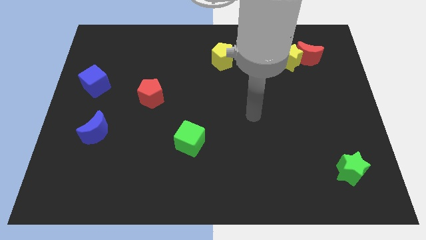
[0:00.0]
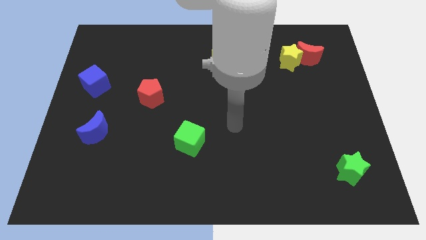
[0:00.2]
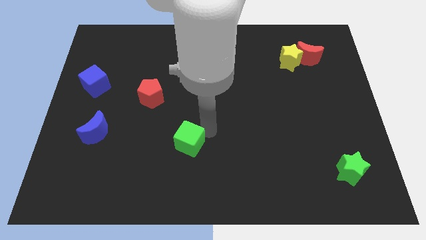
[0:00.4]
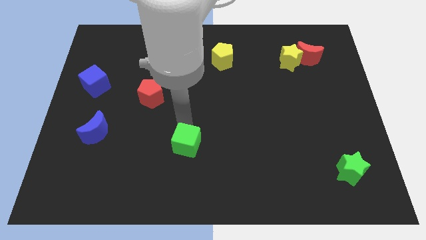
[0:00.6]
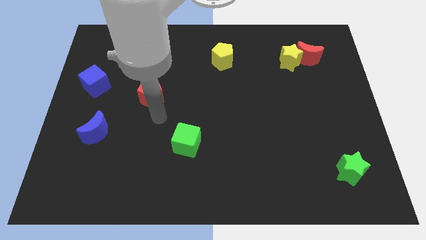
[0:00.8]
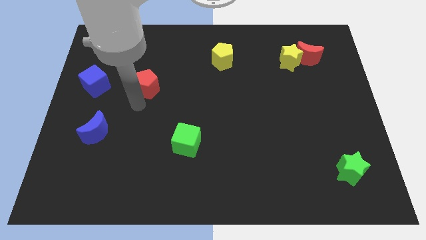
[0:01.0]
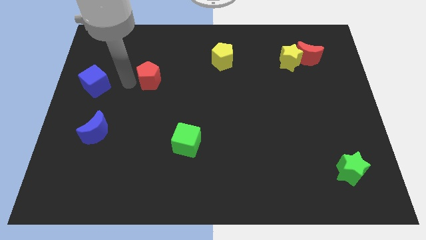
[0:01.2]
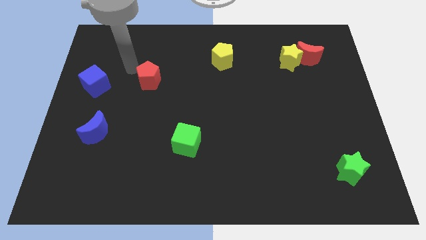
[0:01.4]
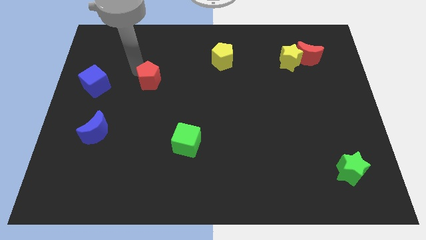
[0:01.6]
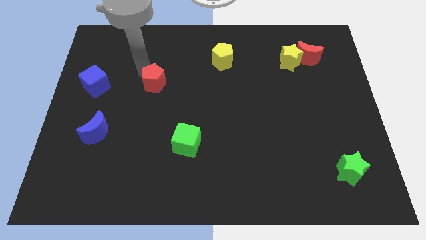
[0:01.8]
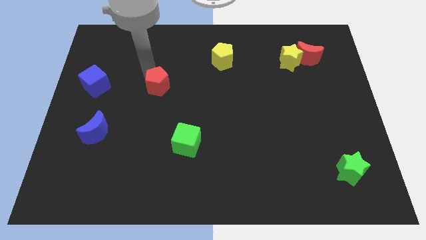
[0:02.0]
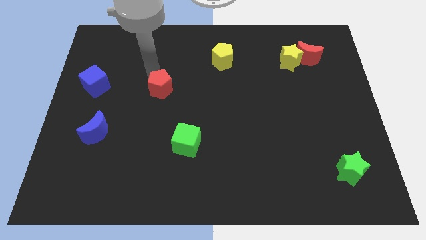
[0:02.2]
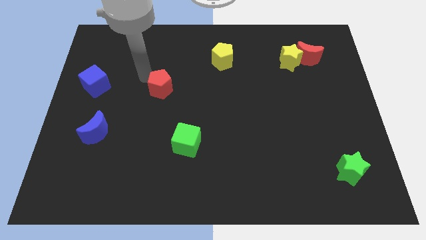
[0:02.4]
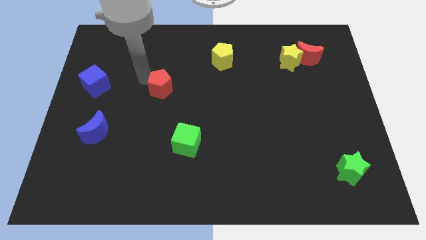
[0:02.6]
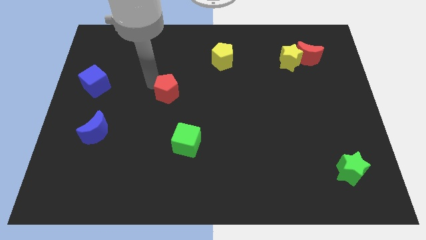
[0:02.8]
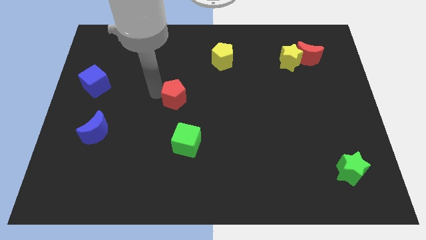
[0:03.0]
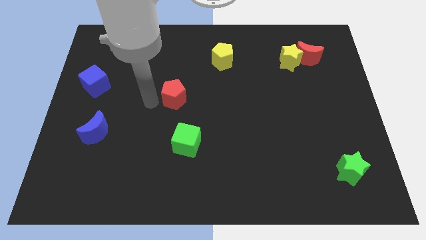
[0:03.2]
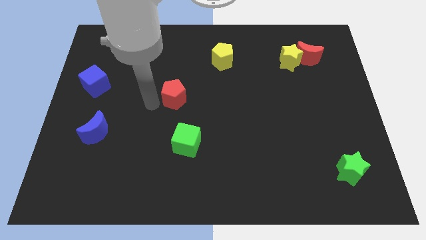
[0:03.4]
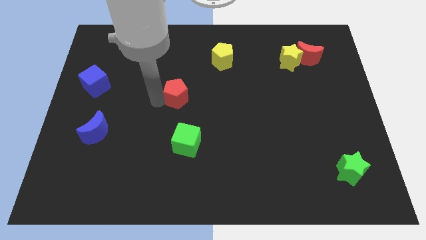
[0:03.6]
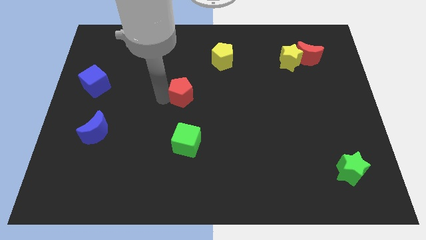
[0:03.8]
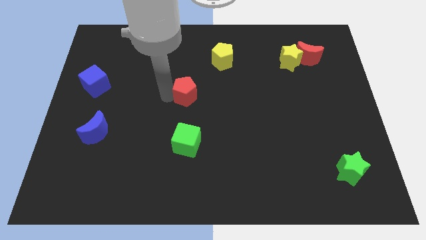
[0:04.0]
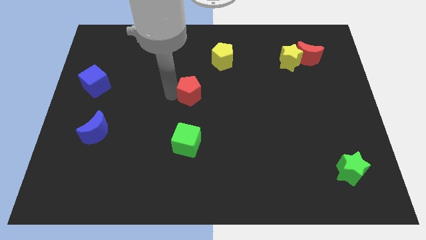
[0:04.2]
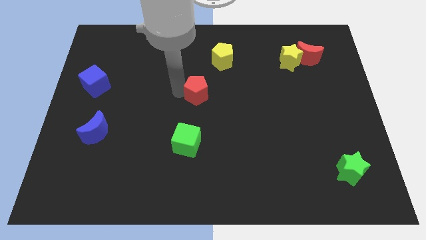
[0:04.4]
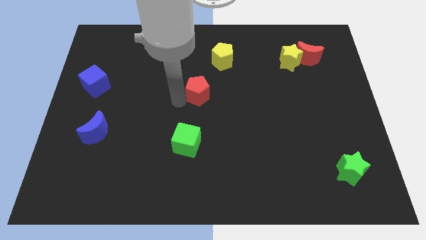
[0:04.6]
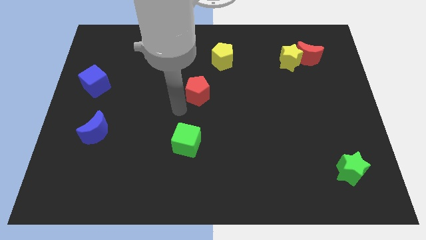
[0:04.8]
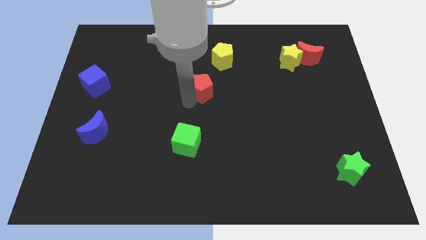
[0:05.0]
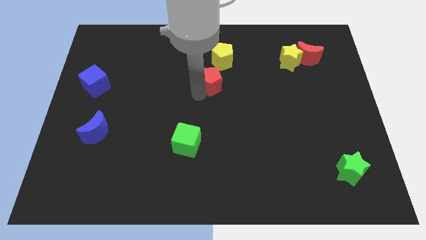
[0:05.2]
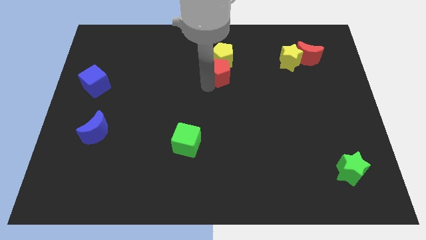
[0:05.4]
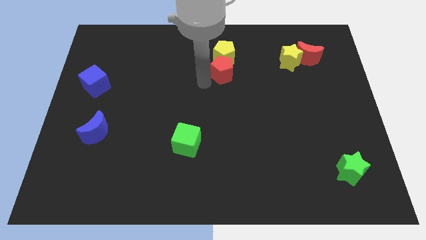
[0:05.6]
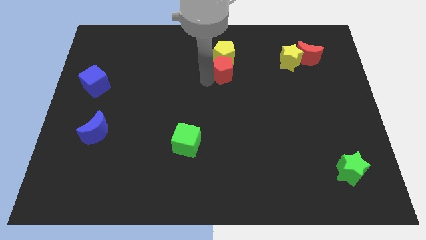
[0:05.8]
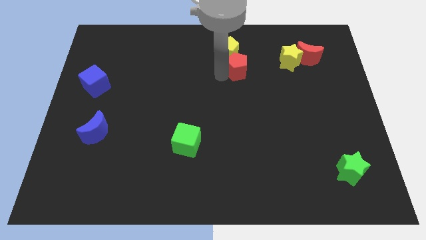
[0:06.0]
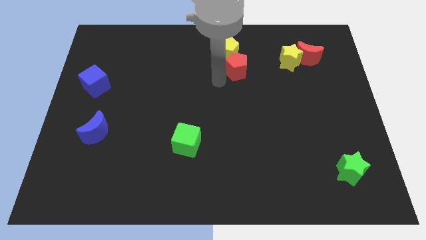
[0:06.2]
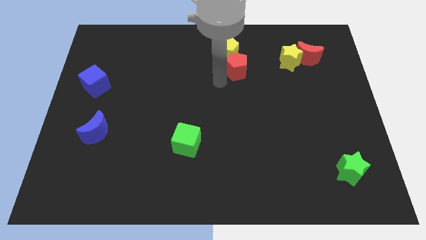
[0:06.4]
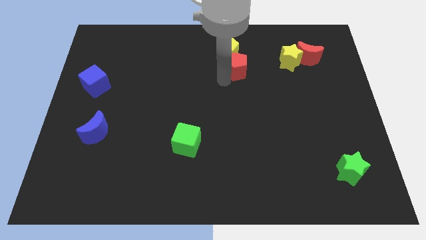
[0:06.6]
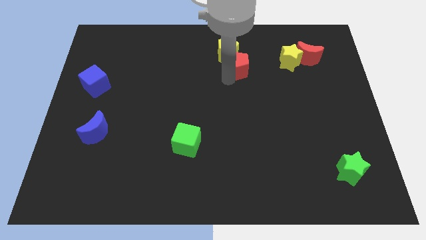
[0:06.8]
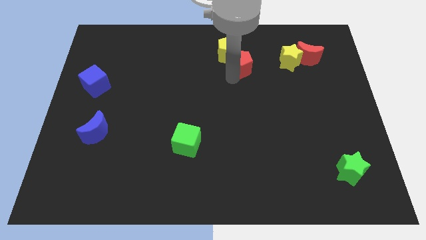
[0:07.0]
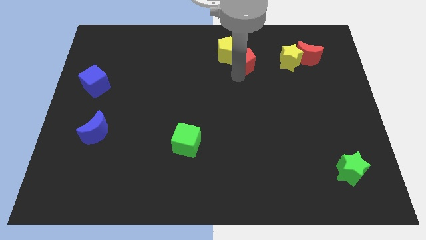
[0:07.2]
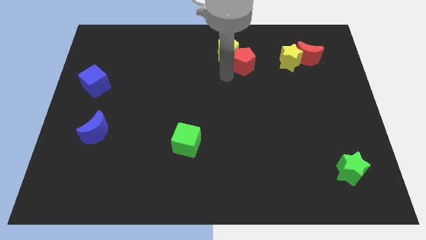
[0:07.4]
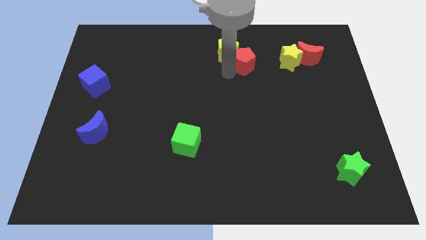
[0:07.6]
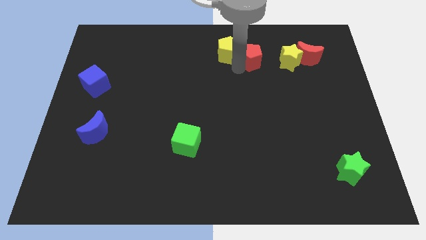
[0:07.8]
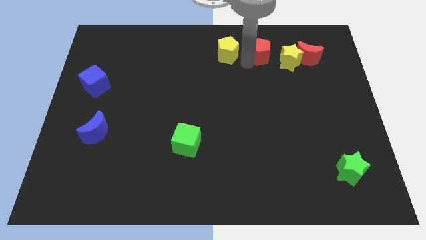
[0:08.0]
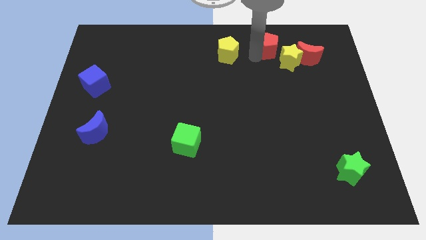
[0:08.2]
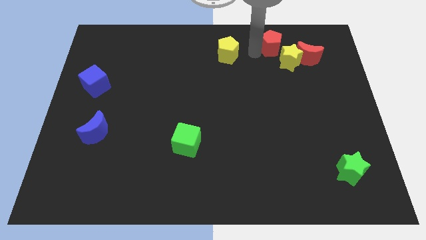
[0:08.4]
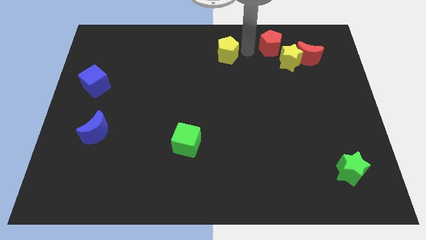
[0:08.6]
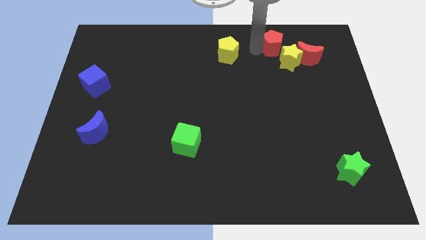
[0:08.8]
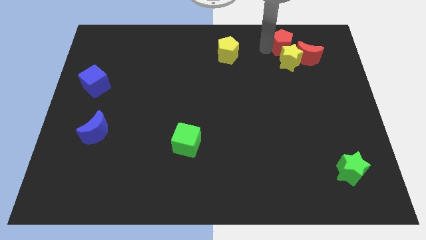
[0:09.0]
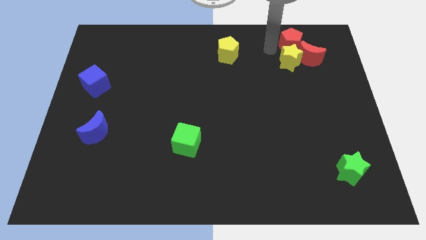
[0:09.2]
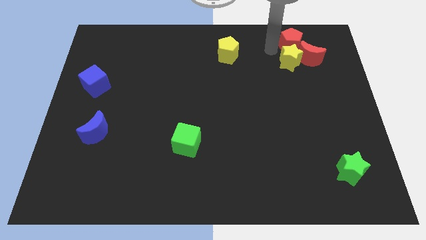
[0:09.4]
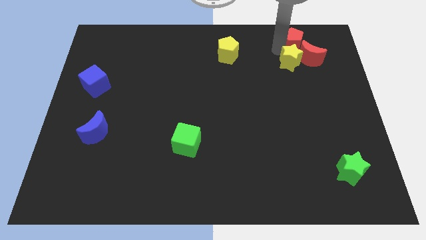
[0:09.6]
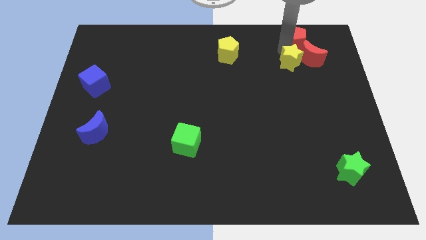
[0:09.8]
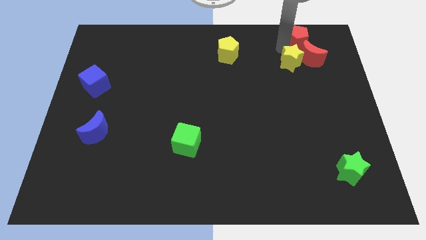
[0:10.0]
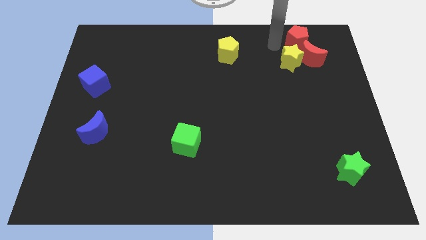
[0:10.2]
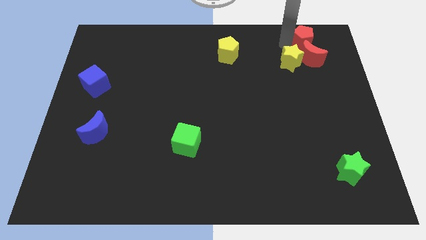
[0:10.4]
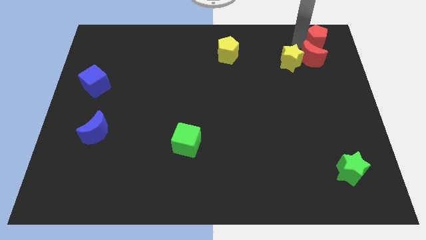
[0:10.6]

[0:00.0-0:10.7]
put the red pentagon to the top right corner
